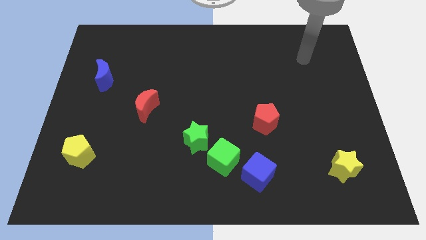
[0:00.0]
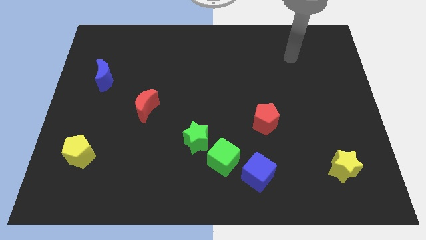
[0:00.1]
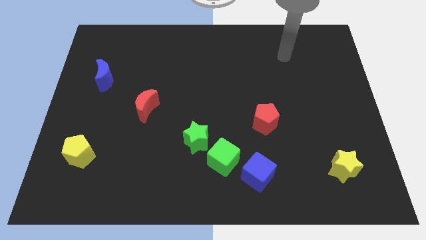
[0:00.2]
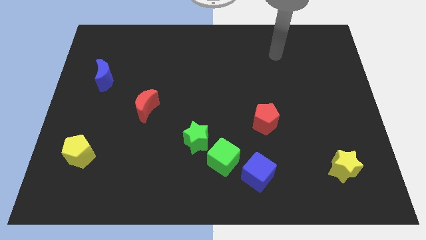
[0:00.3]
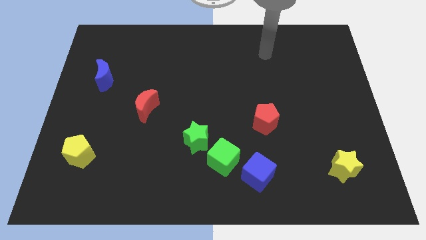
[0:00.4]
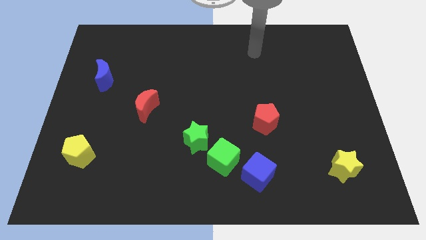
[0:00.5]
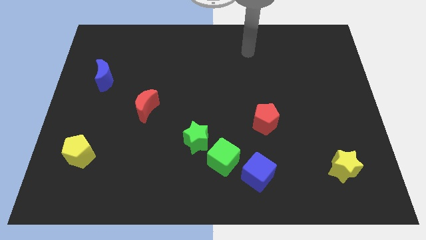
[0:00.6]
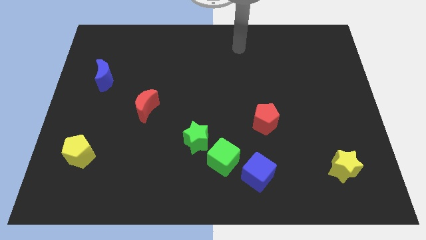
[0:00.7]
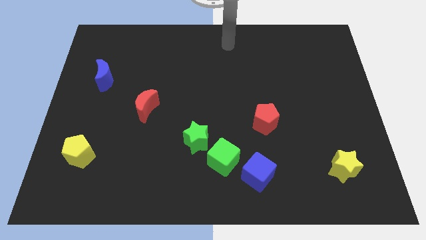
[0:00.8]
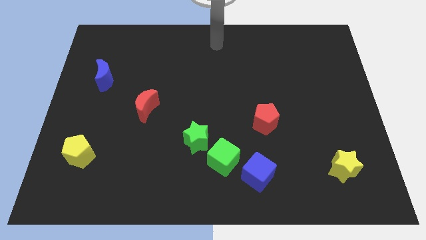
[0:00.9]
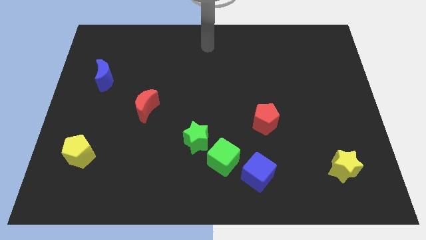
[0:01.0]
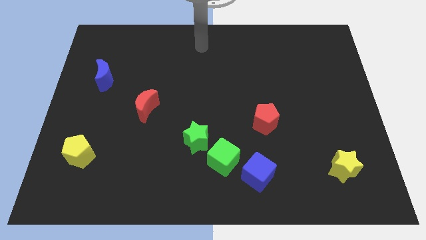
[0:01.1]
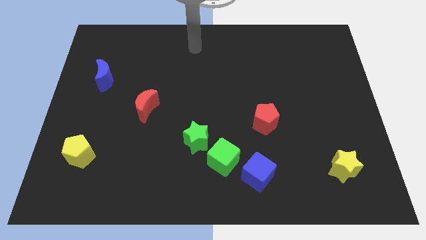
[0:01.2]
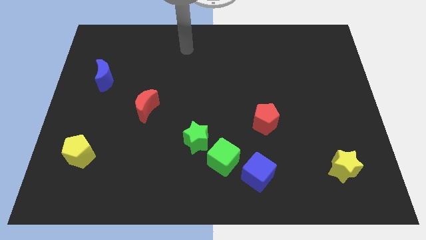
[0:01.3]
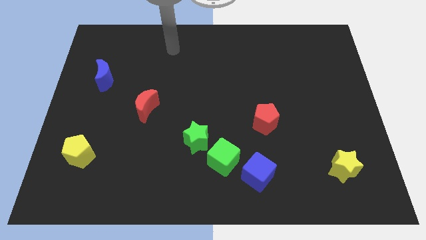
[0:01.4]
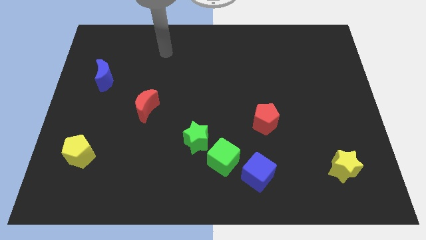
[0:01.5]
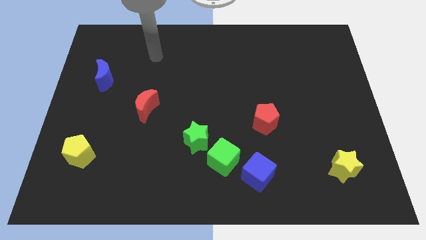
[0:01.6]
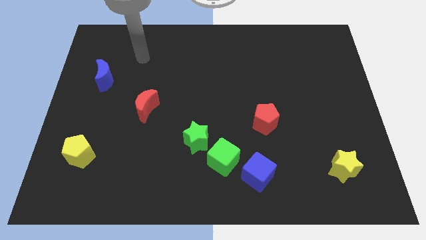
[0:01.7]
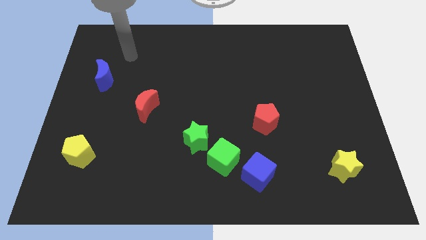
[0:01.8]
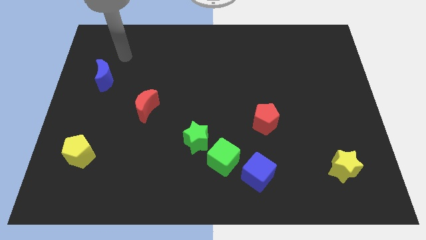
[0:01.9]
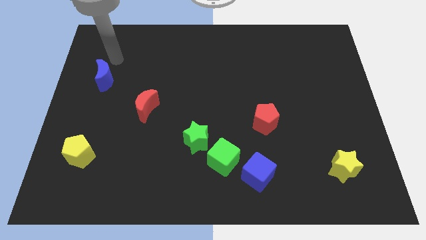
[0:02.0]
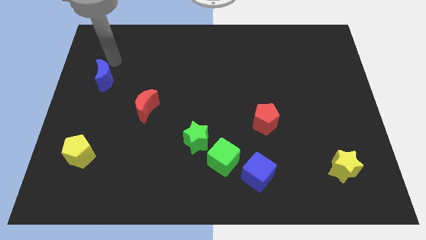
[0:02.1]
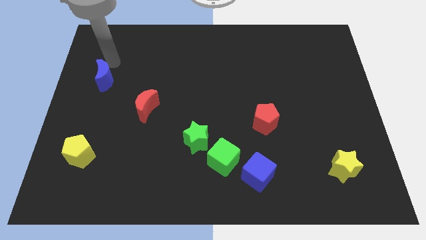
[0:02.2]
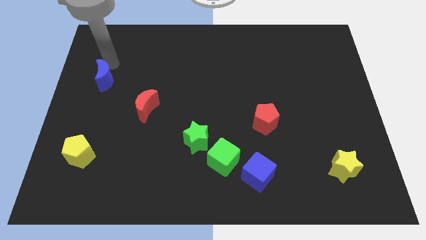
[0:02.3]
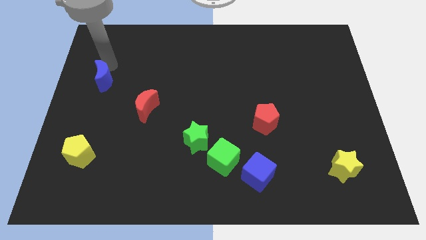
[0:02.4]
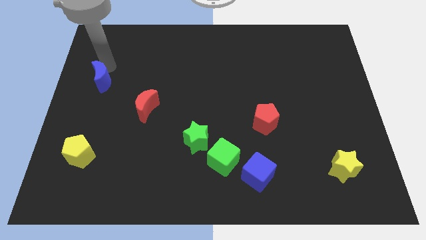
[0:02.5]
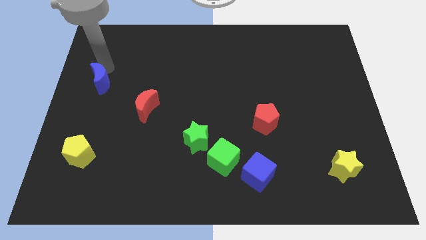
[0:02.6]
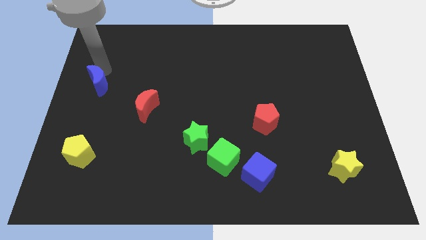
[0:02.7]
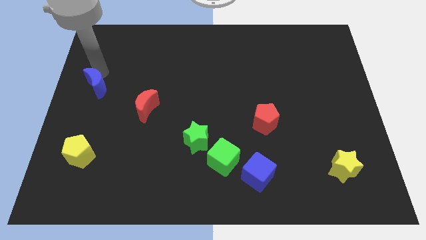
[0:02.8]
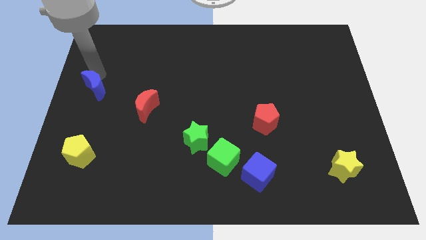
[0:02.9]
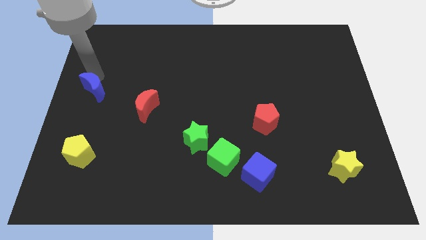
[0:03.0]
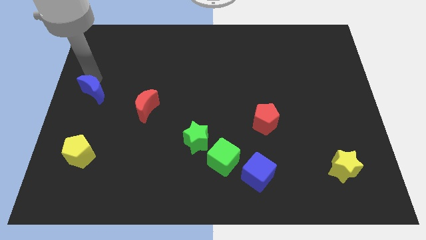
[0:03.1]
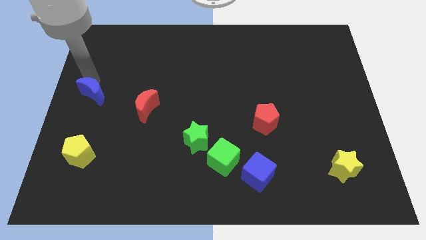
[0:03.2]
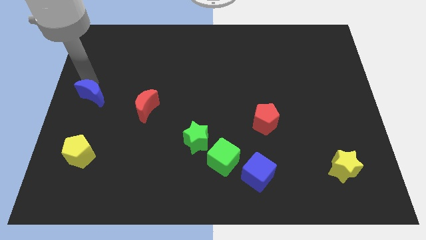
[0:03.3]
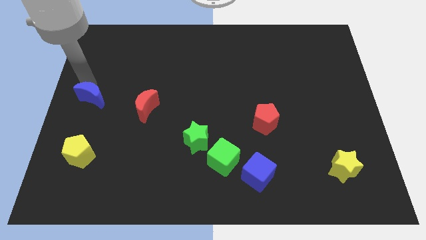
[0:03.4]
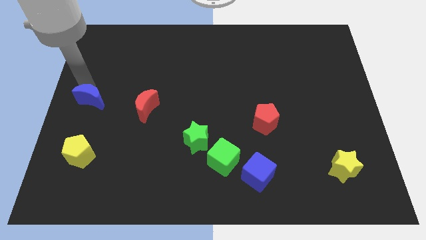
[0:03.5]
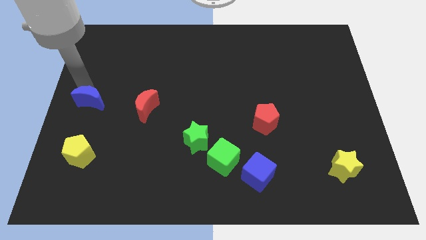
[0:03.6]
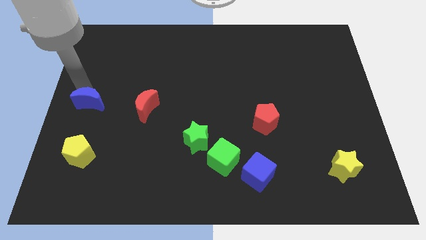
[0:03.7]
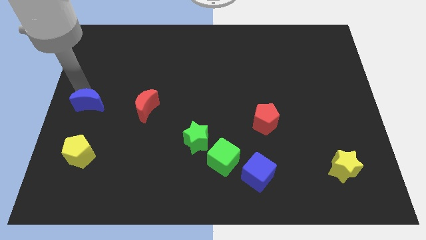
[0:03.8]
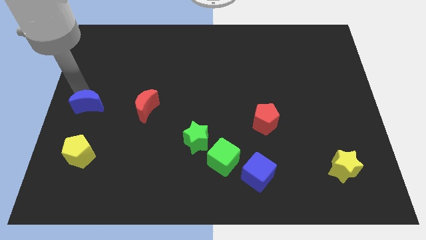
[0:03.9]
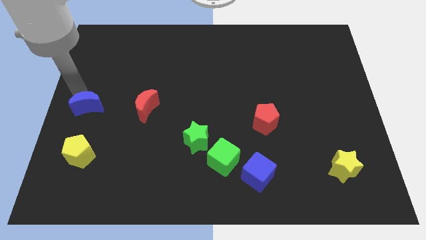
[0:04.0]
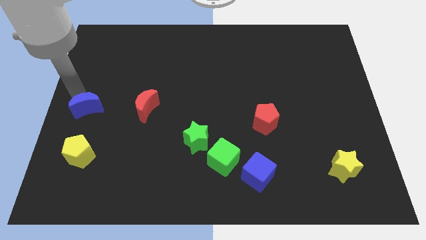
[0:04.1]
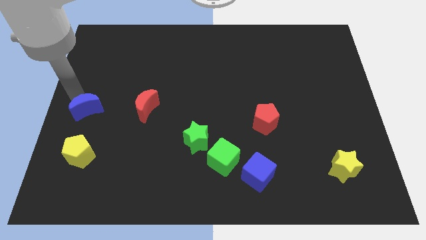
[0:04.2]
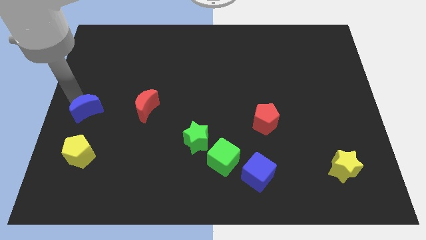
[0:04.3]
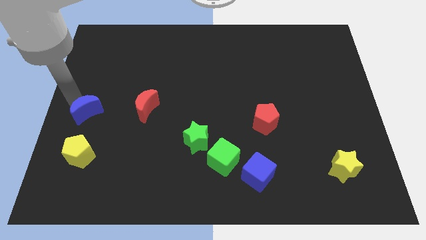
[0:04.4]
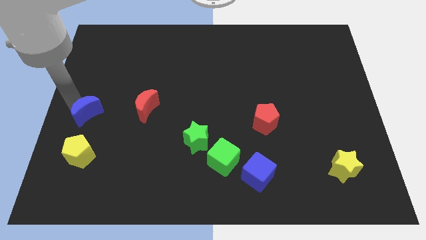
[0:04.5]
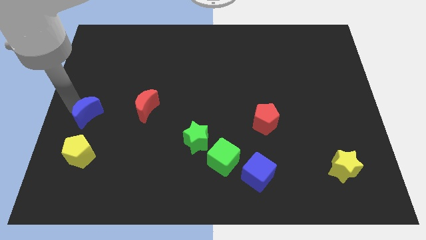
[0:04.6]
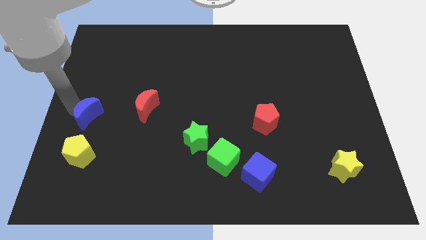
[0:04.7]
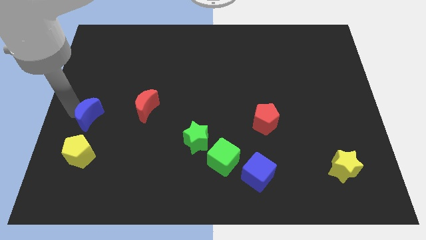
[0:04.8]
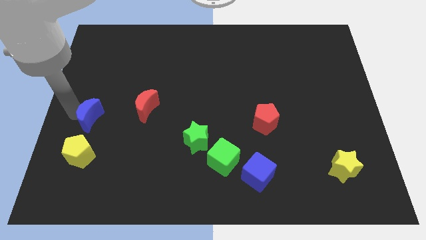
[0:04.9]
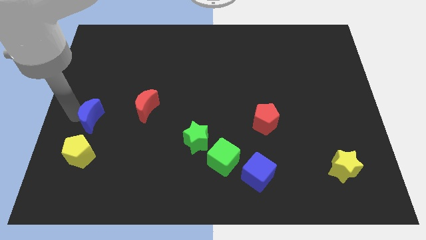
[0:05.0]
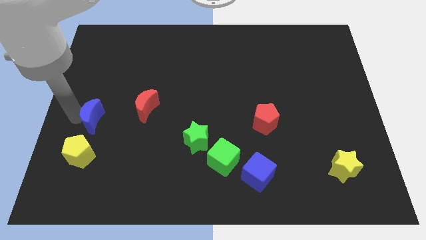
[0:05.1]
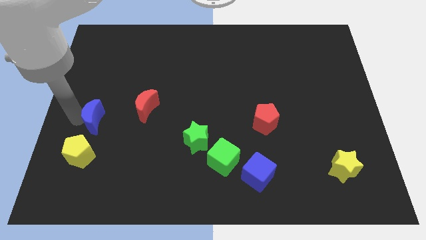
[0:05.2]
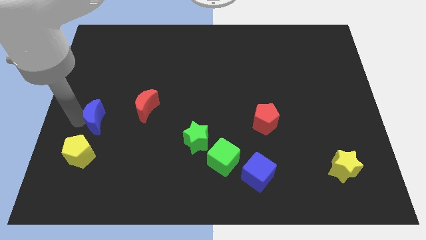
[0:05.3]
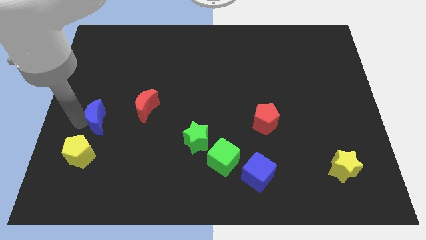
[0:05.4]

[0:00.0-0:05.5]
put the blue moon diagonally up and to the right of the yellow pentagon
